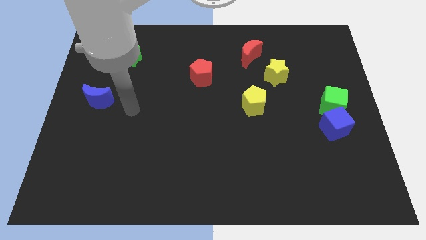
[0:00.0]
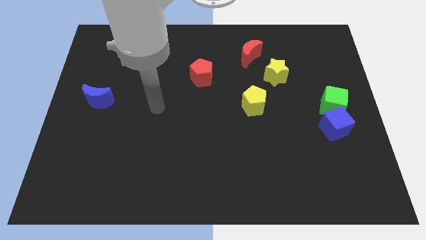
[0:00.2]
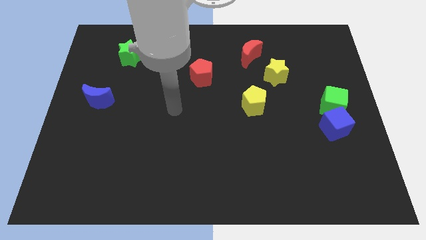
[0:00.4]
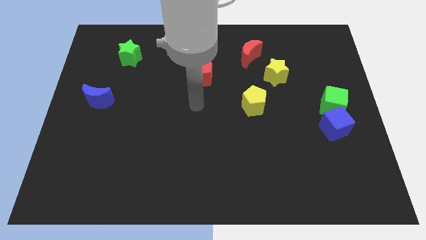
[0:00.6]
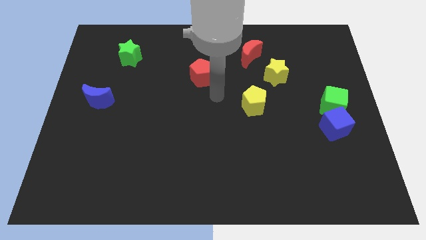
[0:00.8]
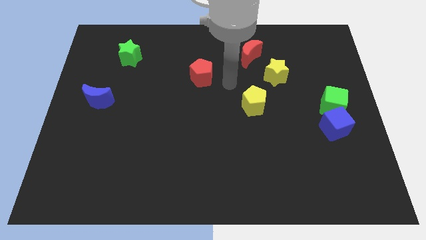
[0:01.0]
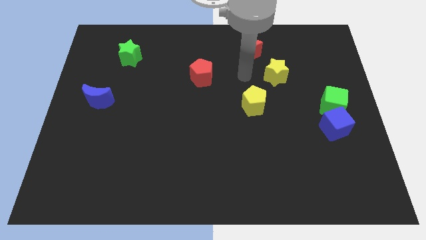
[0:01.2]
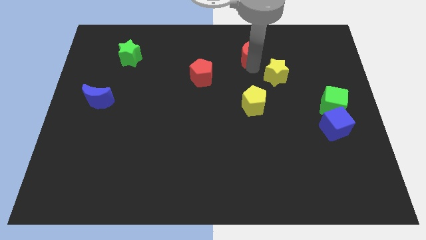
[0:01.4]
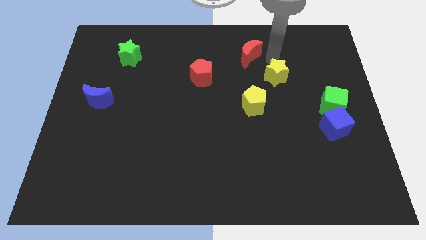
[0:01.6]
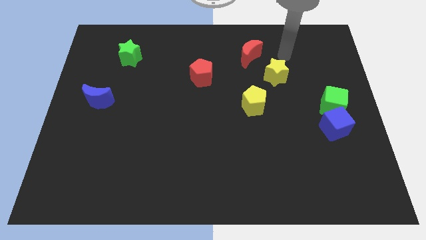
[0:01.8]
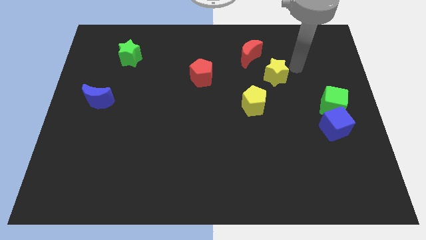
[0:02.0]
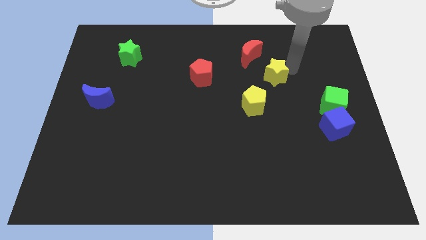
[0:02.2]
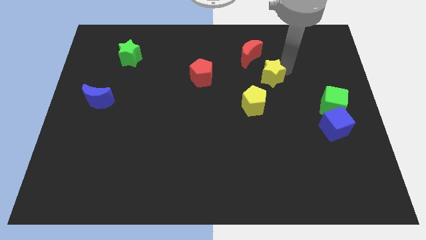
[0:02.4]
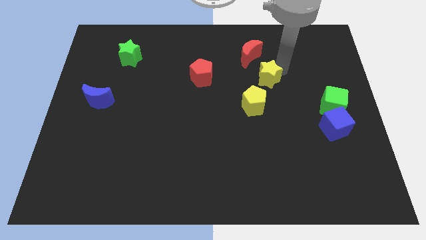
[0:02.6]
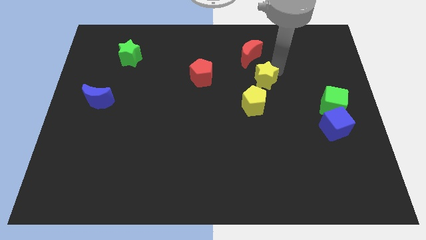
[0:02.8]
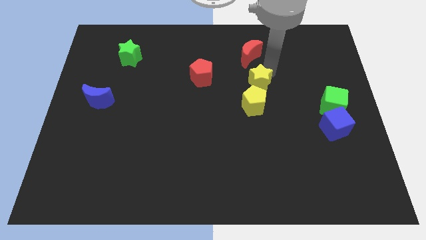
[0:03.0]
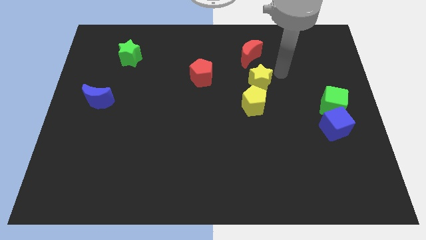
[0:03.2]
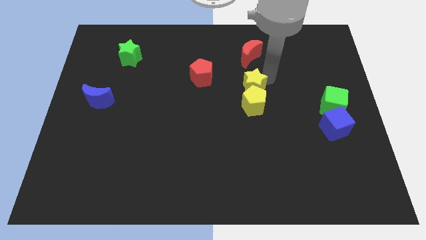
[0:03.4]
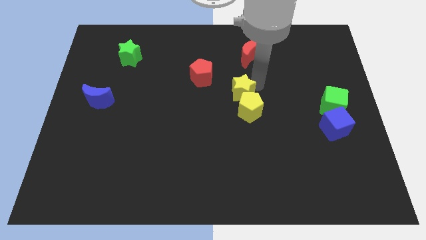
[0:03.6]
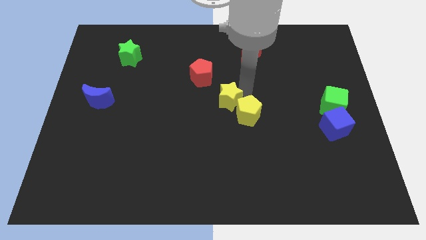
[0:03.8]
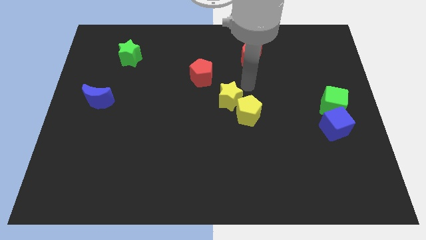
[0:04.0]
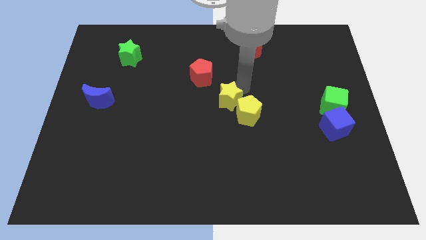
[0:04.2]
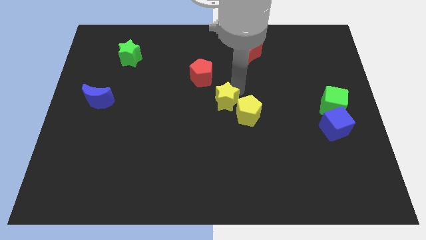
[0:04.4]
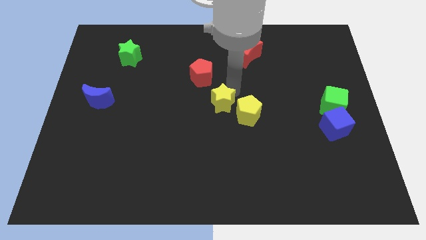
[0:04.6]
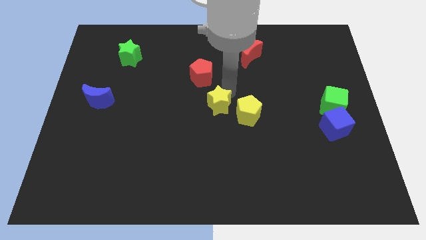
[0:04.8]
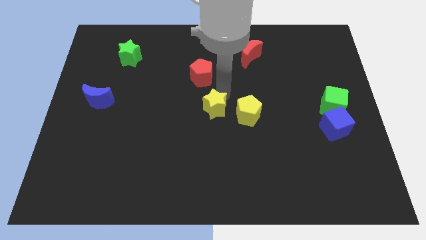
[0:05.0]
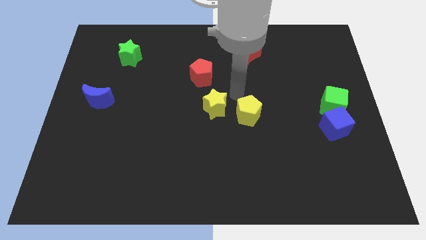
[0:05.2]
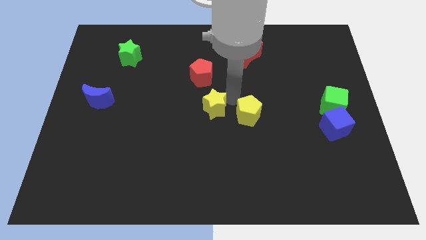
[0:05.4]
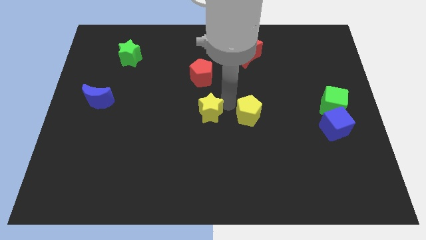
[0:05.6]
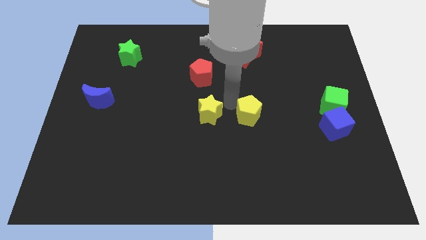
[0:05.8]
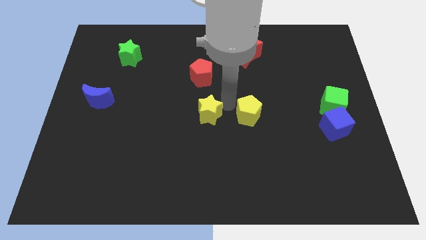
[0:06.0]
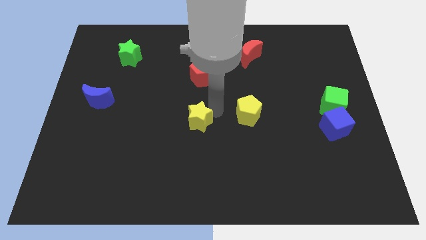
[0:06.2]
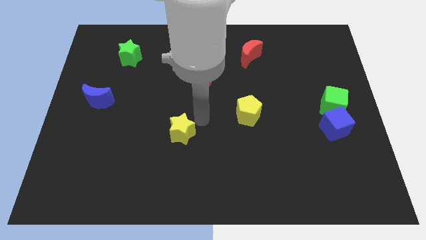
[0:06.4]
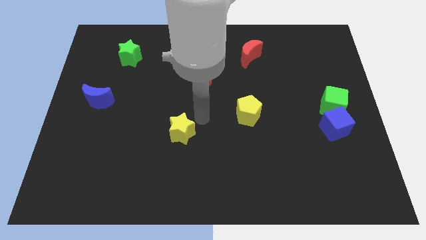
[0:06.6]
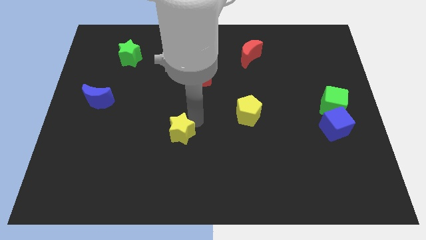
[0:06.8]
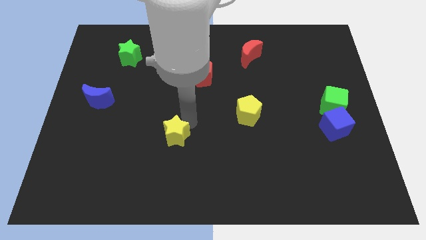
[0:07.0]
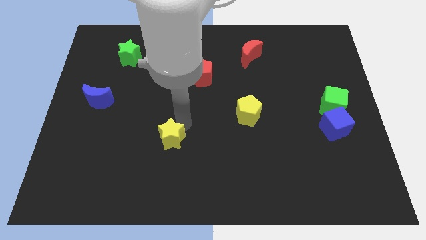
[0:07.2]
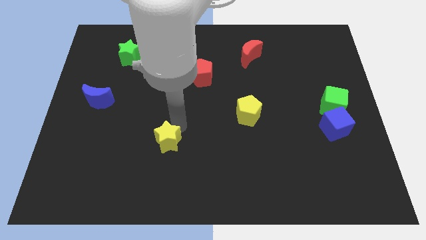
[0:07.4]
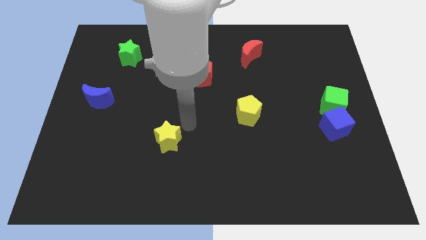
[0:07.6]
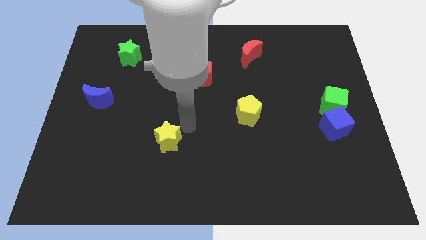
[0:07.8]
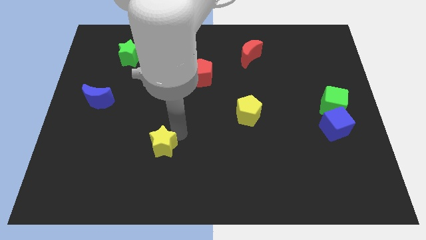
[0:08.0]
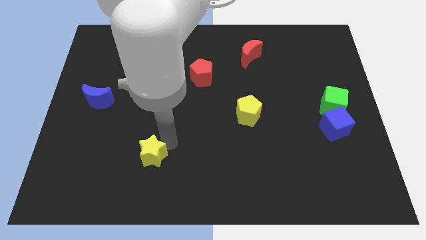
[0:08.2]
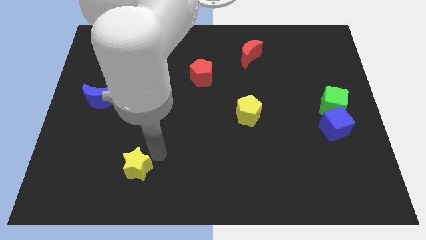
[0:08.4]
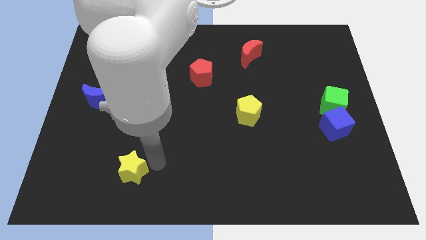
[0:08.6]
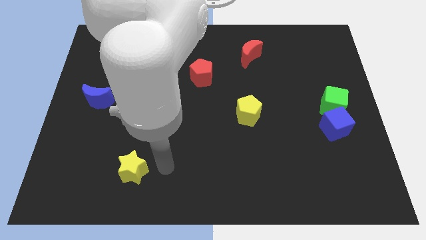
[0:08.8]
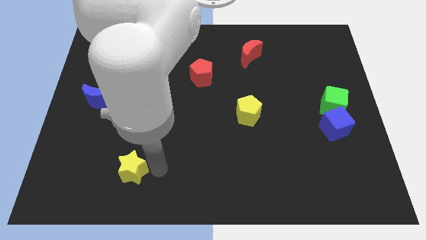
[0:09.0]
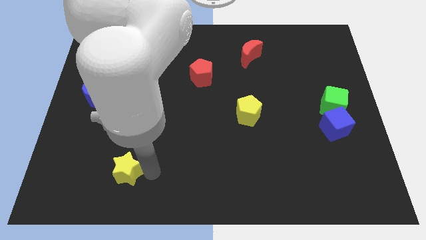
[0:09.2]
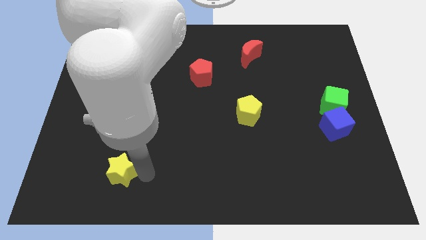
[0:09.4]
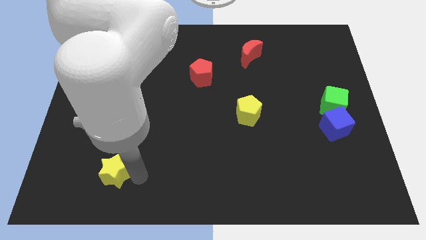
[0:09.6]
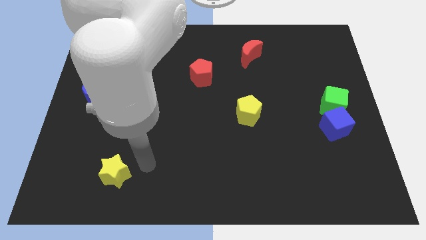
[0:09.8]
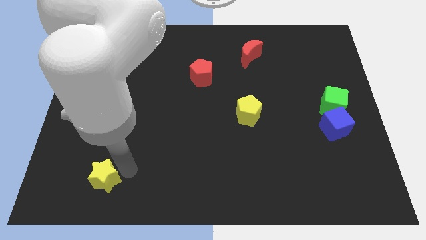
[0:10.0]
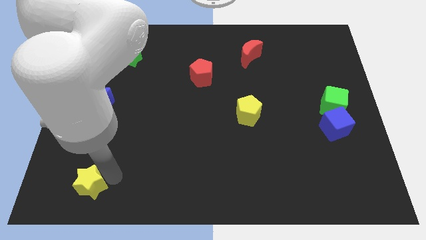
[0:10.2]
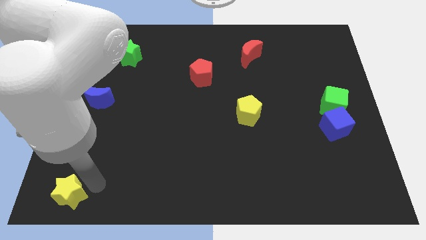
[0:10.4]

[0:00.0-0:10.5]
put the yellow star to the lower left corner

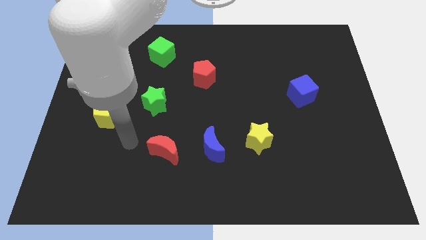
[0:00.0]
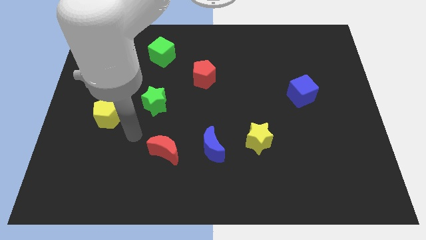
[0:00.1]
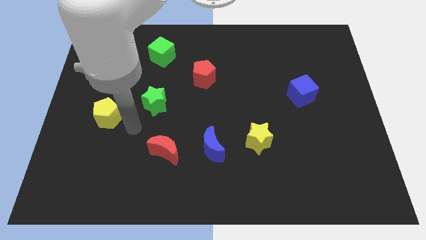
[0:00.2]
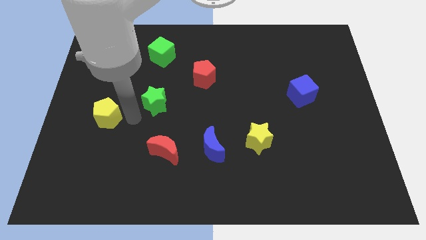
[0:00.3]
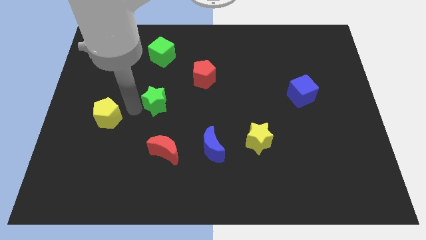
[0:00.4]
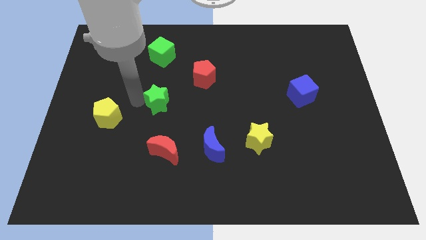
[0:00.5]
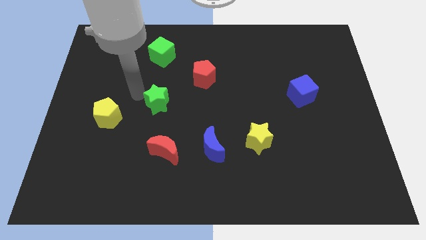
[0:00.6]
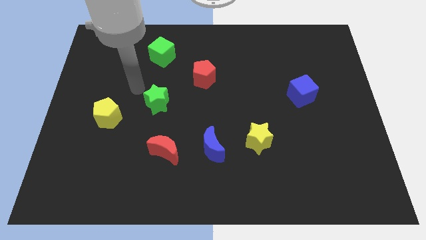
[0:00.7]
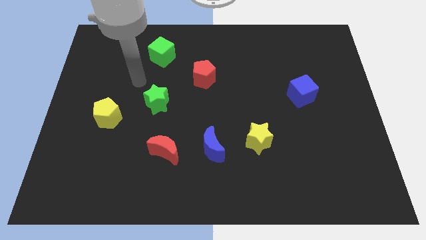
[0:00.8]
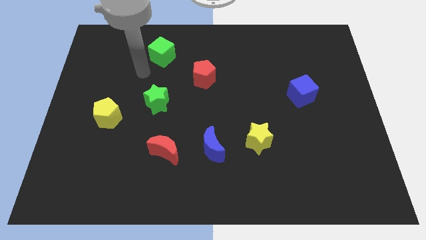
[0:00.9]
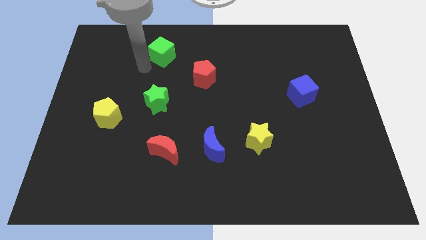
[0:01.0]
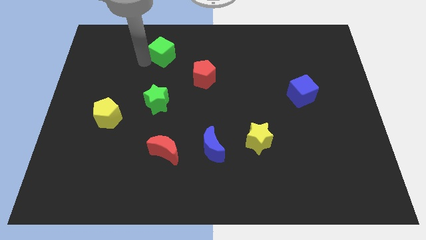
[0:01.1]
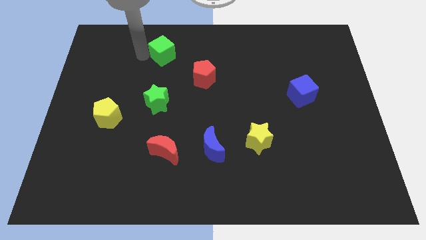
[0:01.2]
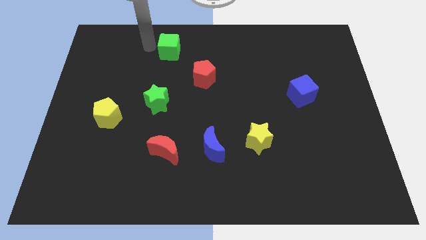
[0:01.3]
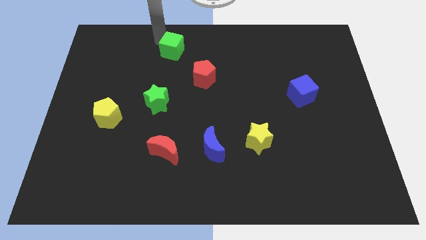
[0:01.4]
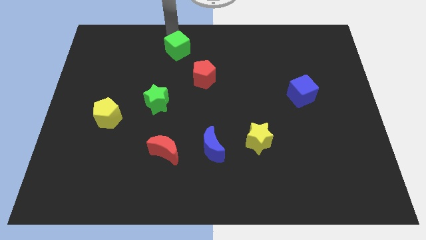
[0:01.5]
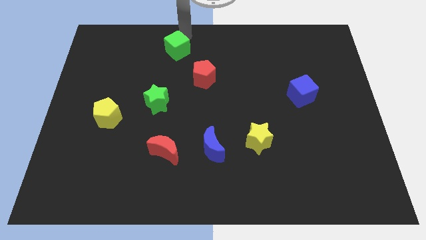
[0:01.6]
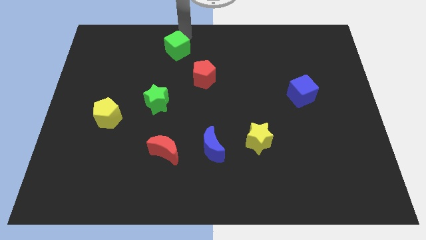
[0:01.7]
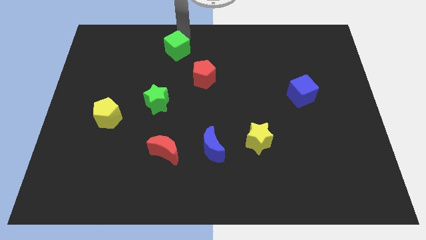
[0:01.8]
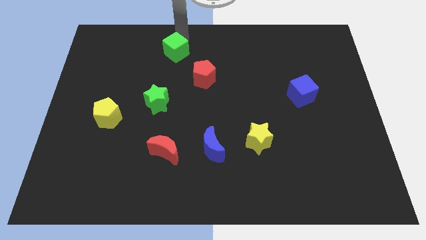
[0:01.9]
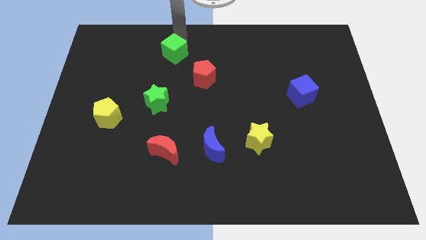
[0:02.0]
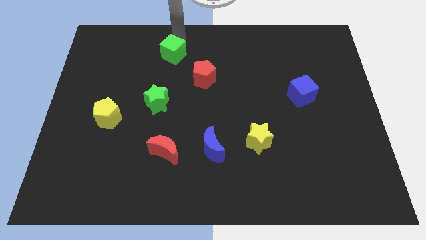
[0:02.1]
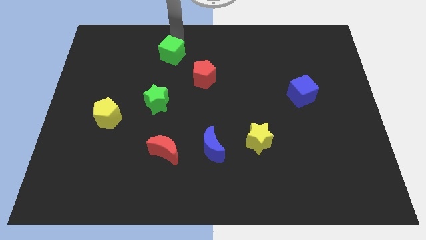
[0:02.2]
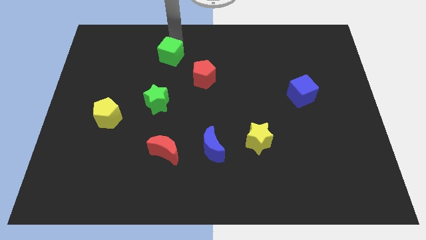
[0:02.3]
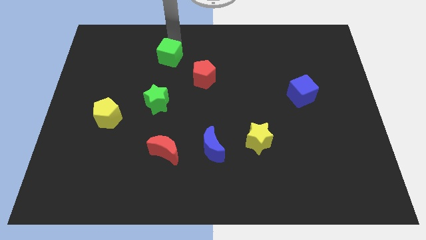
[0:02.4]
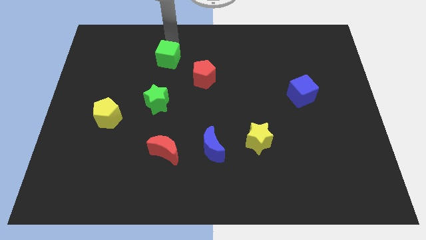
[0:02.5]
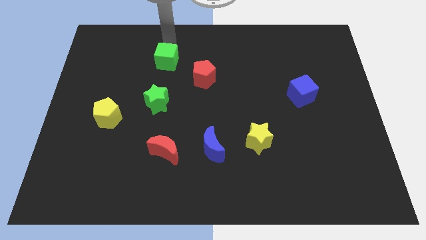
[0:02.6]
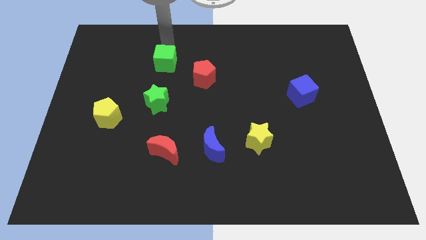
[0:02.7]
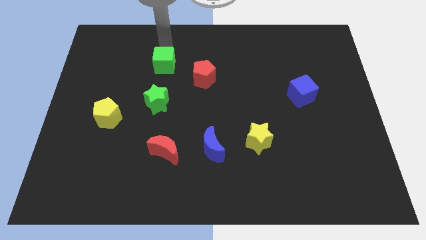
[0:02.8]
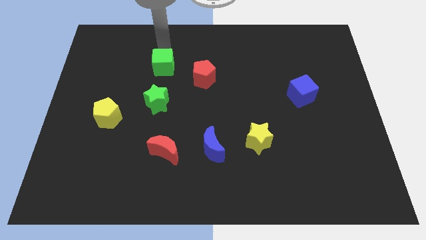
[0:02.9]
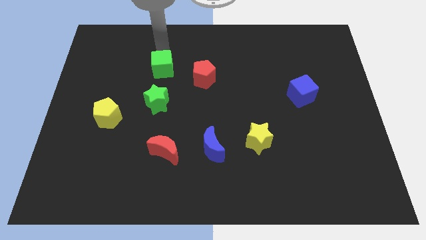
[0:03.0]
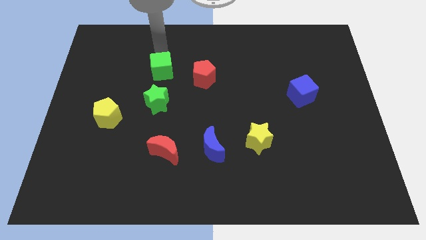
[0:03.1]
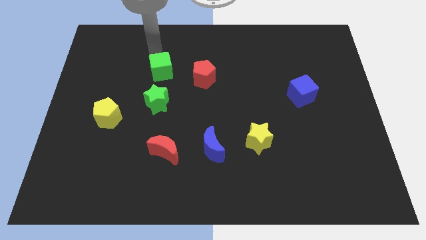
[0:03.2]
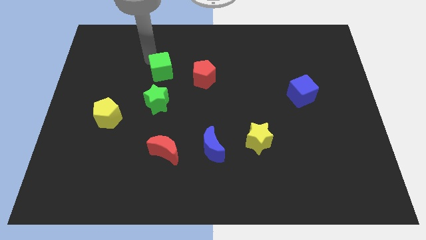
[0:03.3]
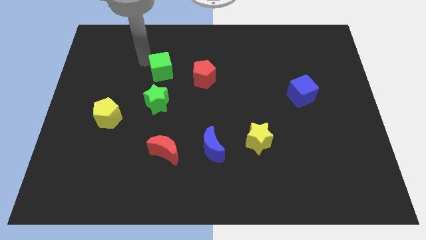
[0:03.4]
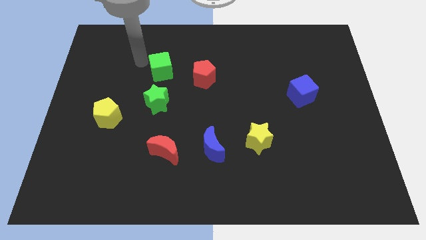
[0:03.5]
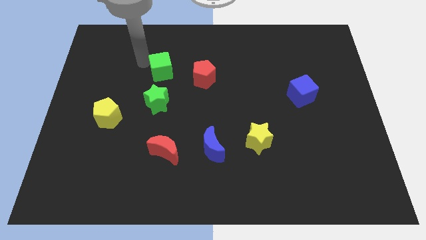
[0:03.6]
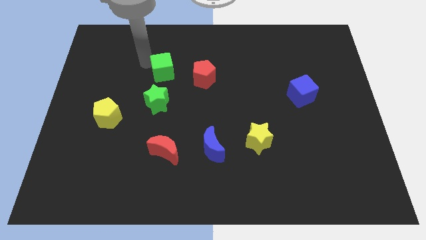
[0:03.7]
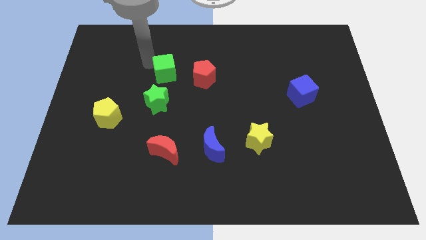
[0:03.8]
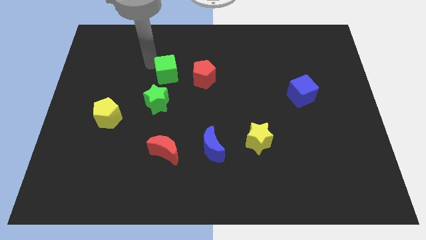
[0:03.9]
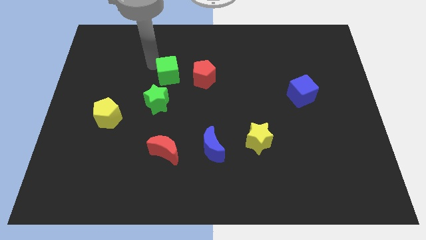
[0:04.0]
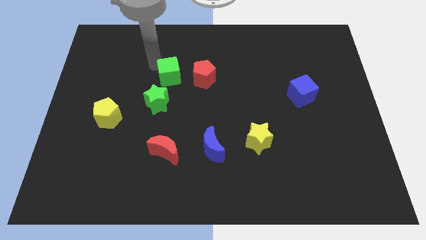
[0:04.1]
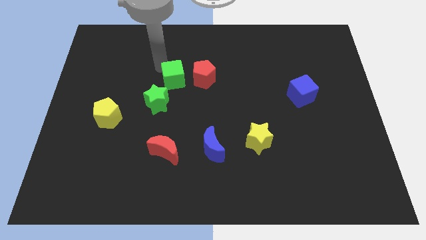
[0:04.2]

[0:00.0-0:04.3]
move the green cube to the middle
